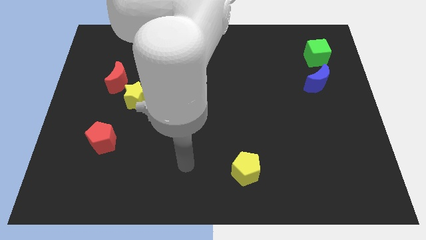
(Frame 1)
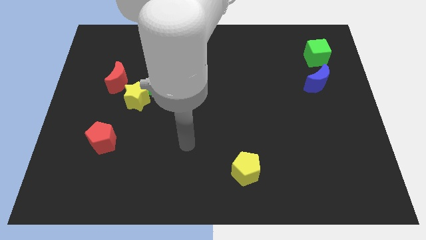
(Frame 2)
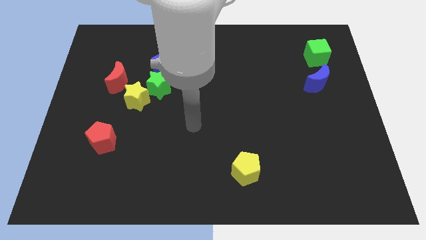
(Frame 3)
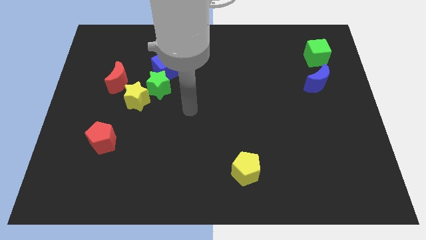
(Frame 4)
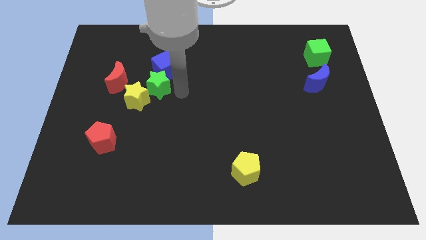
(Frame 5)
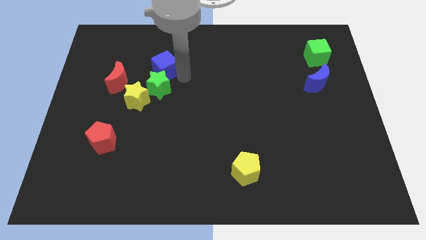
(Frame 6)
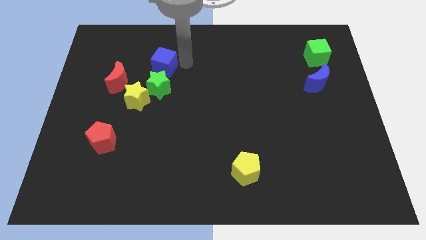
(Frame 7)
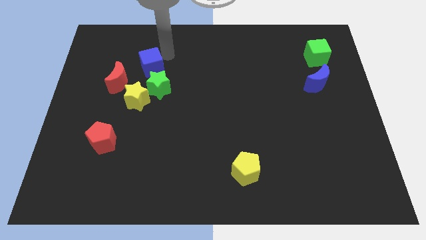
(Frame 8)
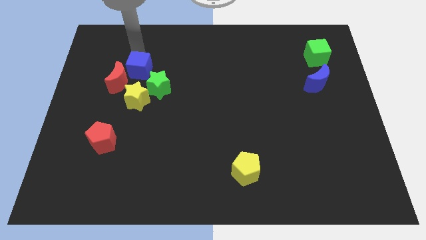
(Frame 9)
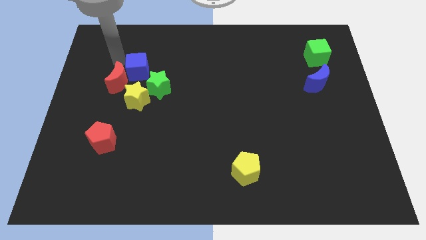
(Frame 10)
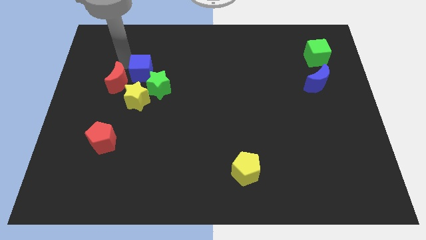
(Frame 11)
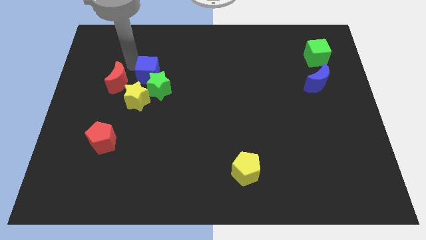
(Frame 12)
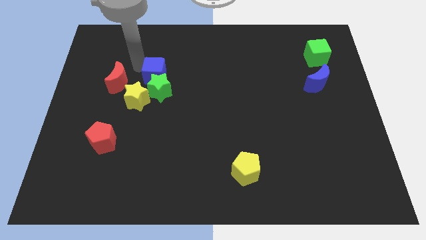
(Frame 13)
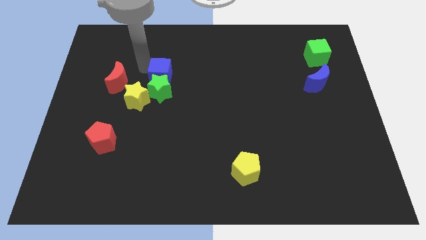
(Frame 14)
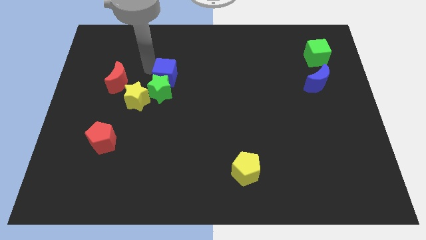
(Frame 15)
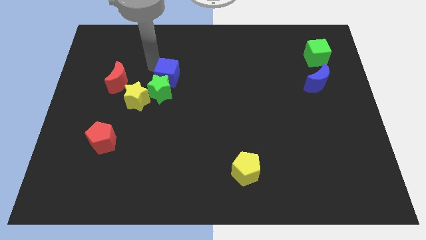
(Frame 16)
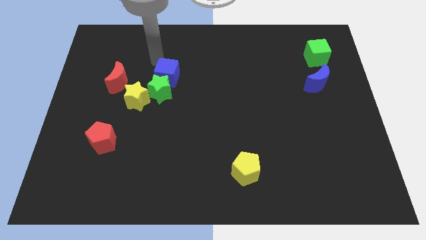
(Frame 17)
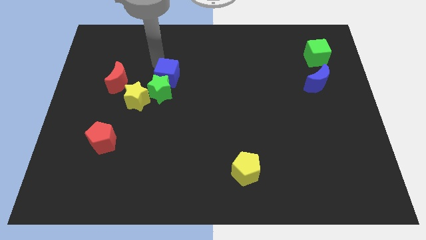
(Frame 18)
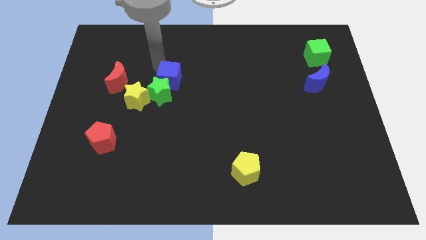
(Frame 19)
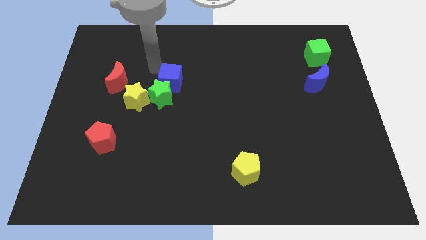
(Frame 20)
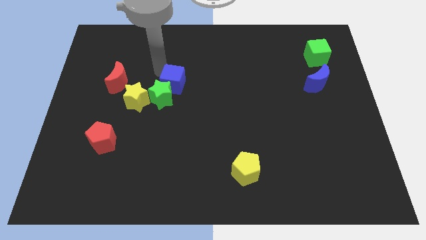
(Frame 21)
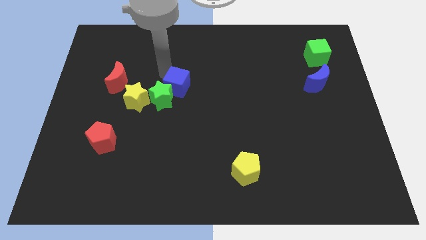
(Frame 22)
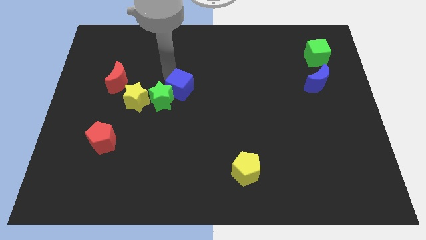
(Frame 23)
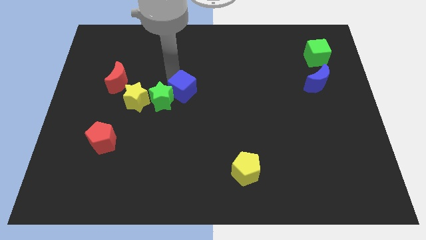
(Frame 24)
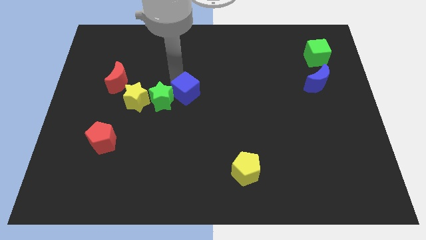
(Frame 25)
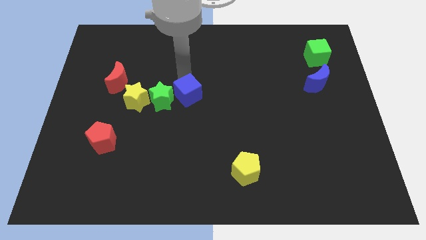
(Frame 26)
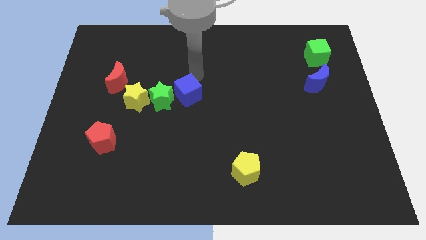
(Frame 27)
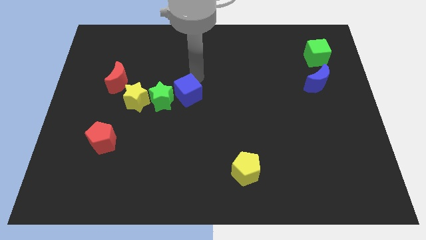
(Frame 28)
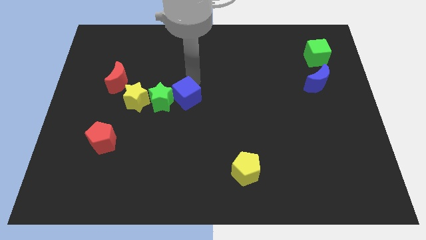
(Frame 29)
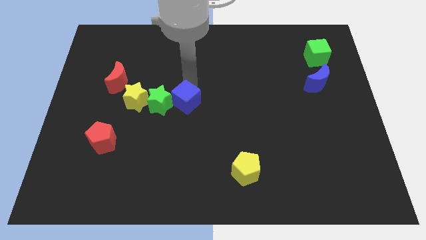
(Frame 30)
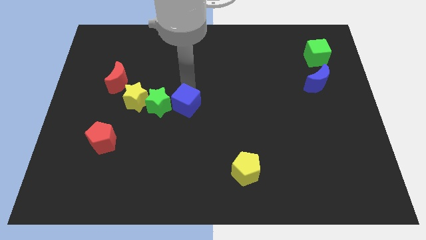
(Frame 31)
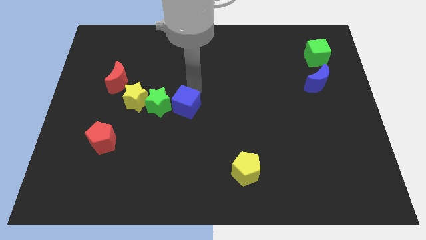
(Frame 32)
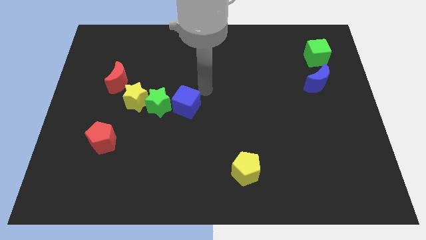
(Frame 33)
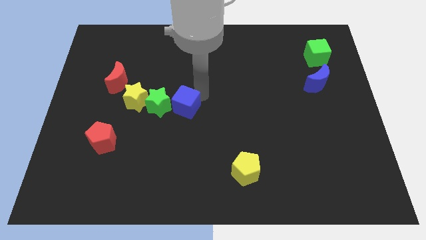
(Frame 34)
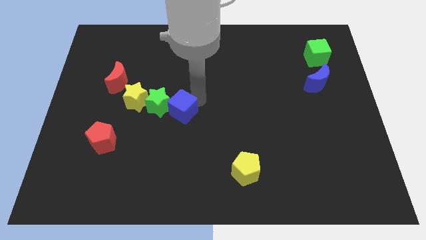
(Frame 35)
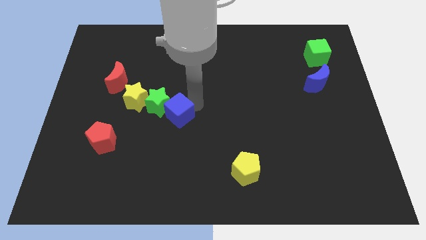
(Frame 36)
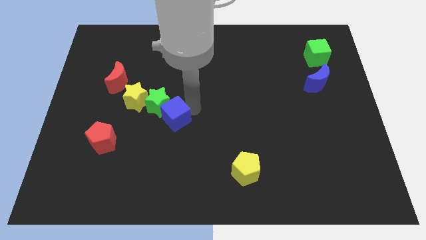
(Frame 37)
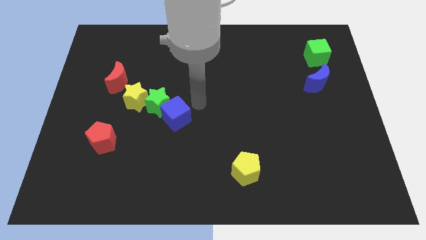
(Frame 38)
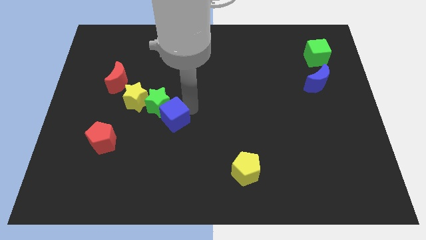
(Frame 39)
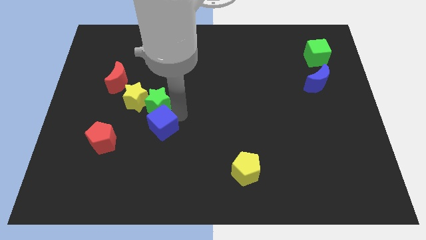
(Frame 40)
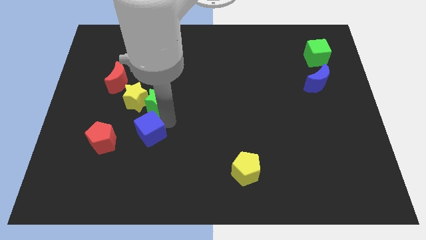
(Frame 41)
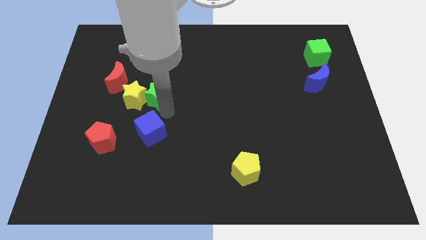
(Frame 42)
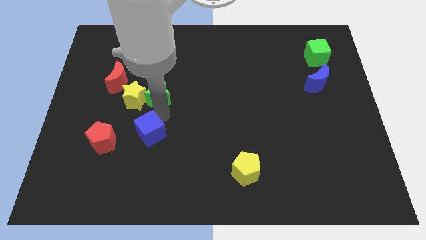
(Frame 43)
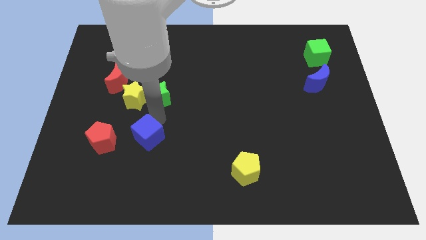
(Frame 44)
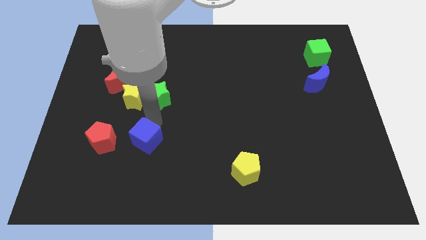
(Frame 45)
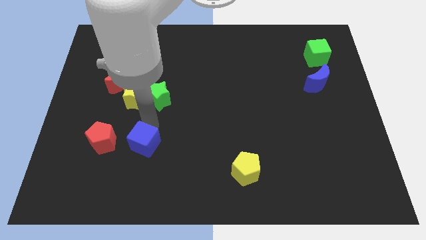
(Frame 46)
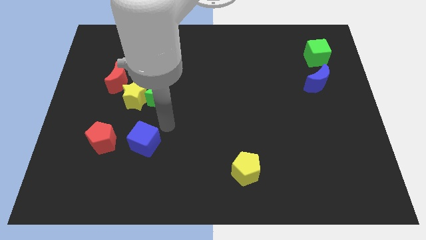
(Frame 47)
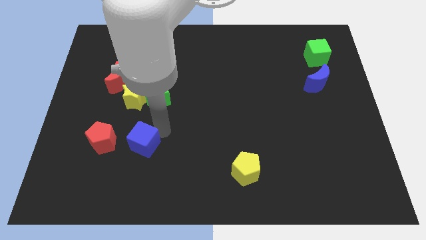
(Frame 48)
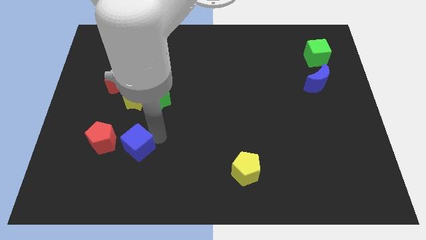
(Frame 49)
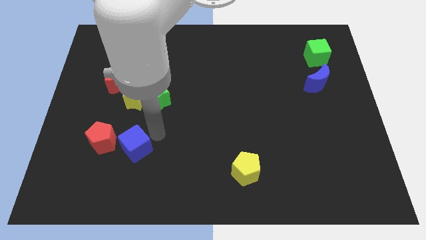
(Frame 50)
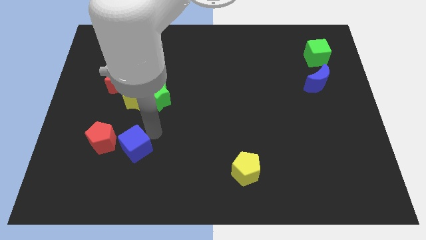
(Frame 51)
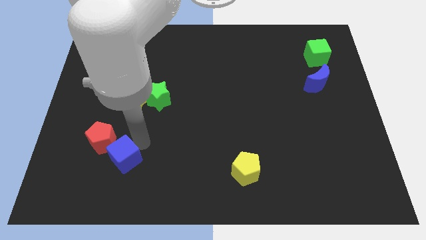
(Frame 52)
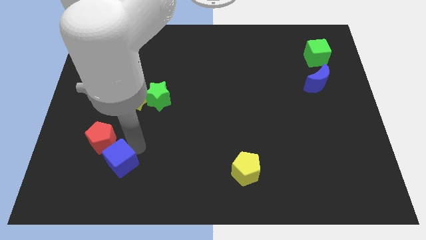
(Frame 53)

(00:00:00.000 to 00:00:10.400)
put the blue cube to the bottom side of the red pentagon

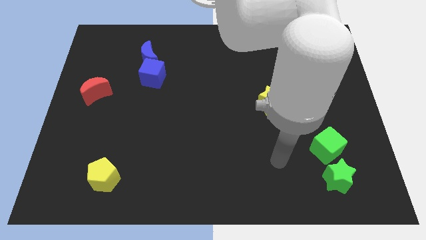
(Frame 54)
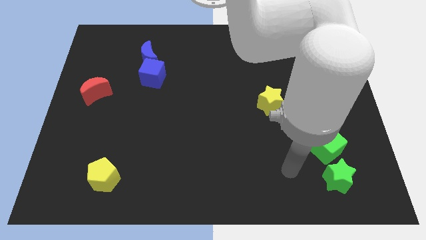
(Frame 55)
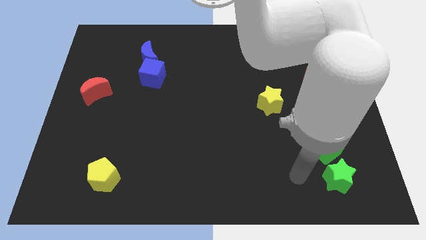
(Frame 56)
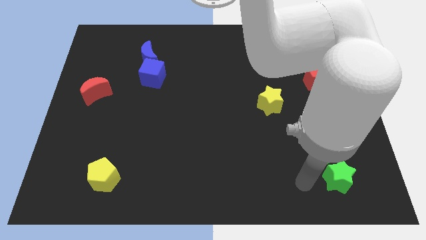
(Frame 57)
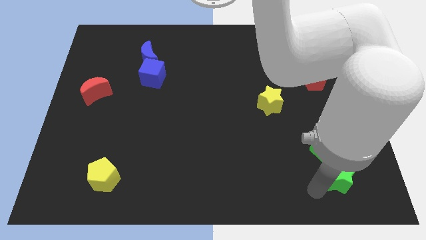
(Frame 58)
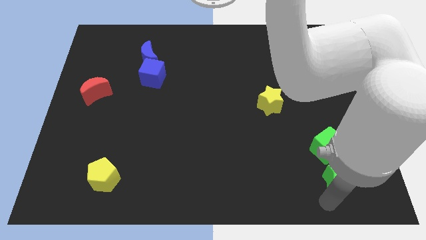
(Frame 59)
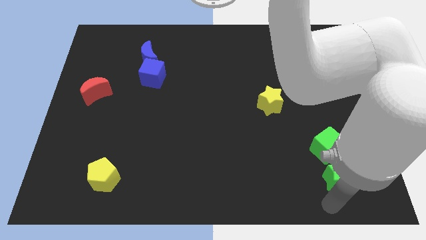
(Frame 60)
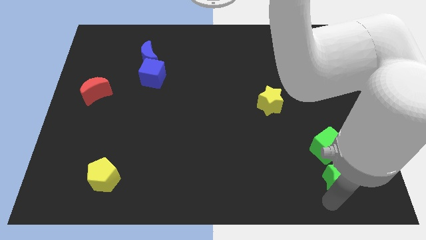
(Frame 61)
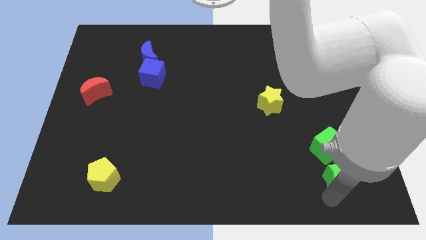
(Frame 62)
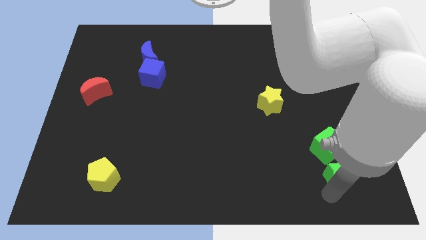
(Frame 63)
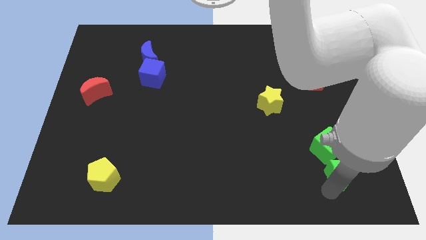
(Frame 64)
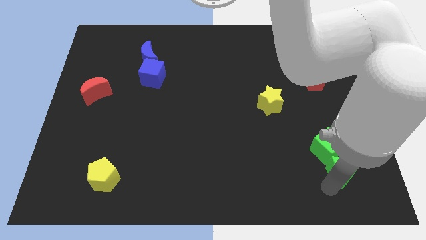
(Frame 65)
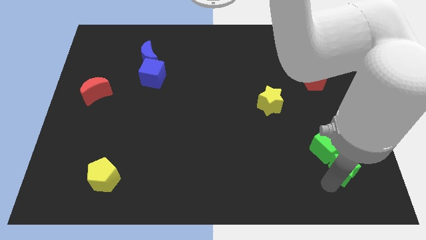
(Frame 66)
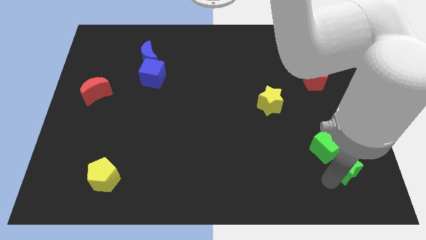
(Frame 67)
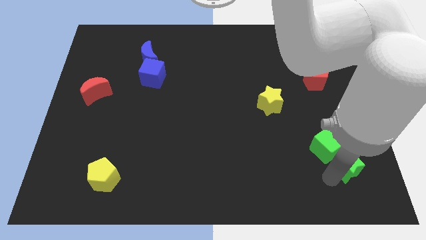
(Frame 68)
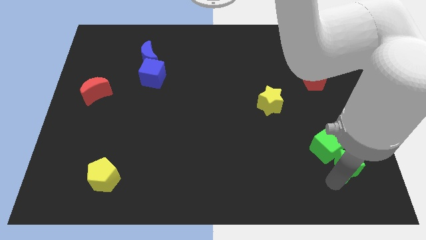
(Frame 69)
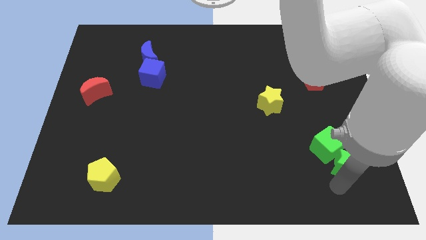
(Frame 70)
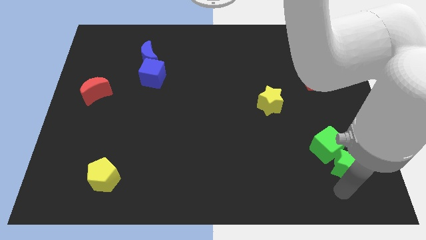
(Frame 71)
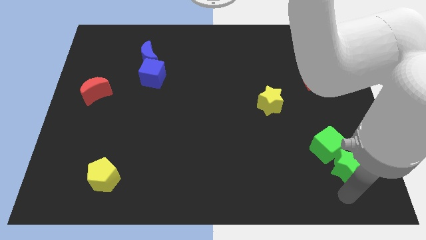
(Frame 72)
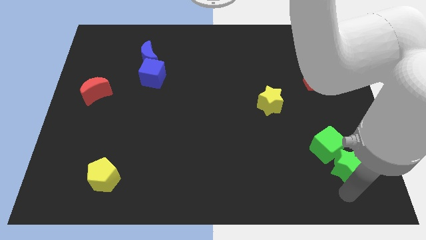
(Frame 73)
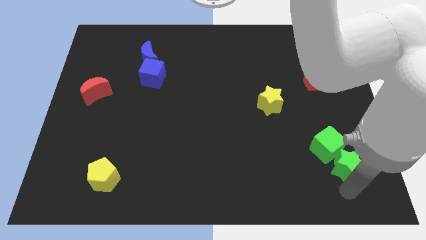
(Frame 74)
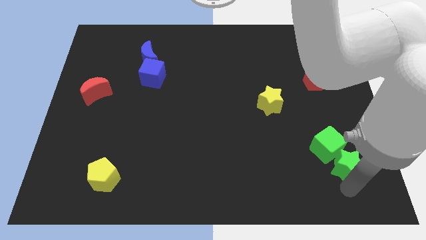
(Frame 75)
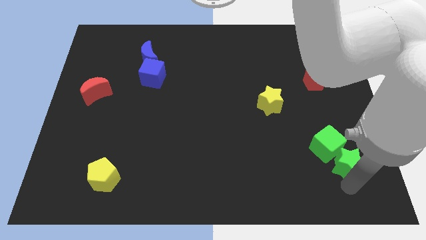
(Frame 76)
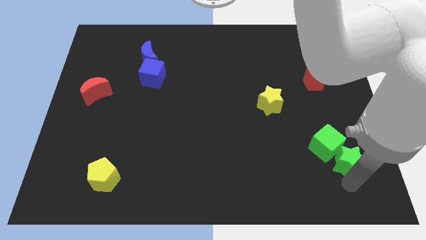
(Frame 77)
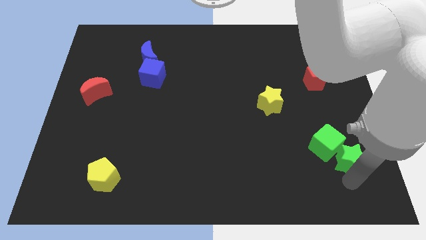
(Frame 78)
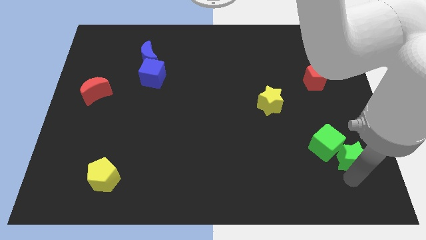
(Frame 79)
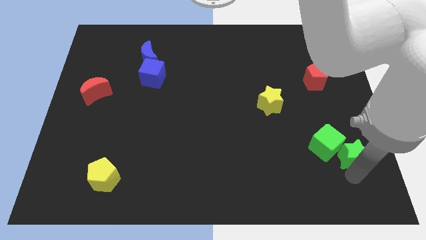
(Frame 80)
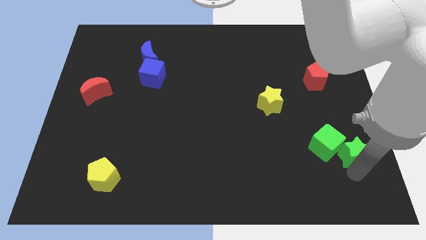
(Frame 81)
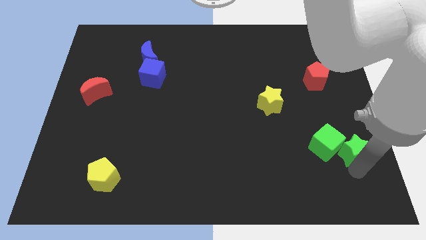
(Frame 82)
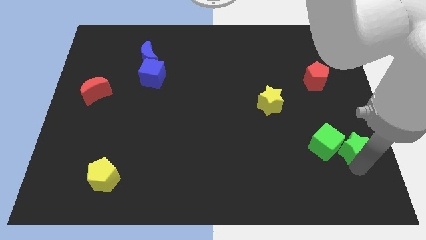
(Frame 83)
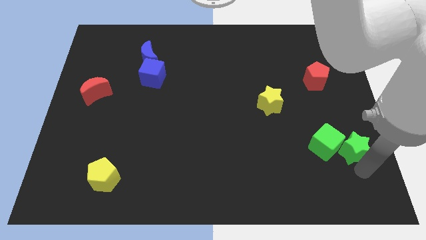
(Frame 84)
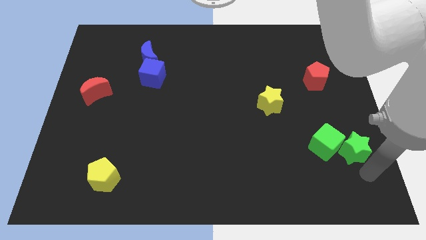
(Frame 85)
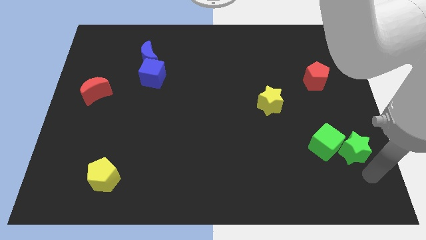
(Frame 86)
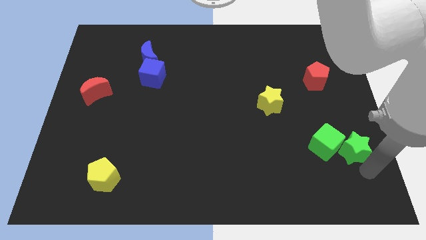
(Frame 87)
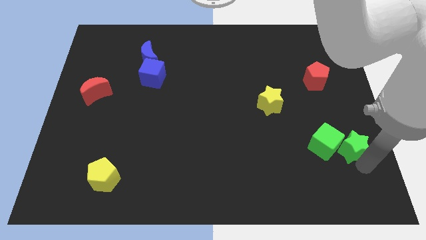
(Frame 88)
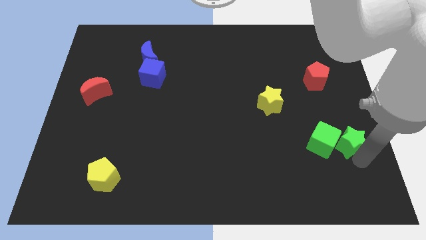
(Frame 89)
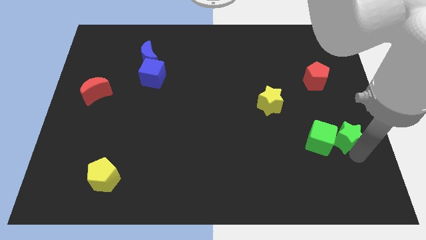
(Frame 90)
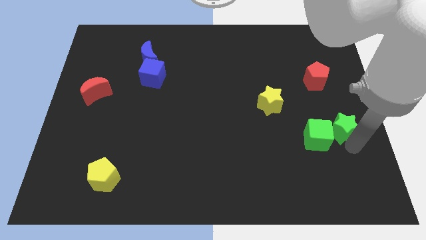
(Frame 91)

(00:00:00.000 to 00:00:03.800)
move the green star below the red pentagon
